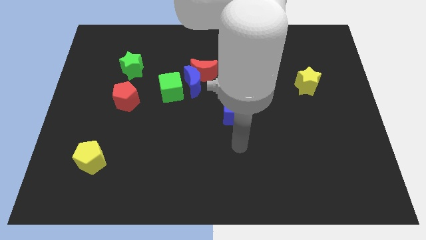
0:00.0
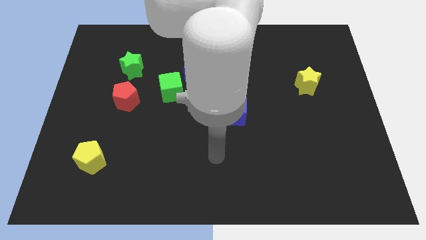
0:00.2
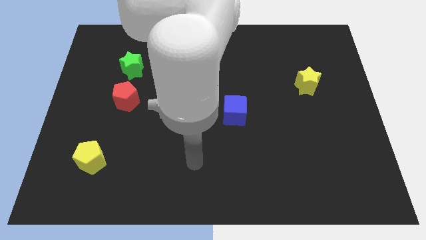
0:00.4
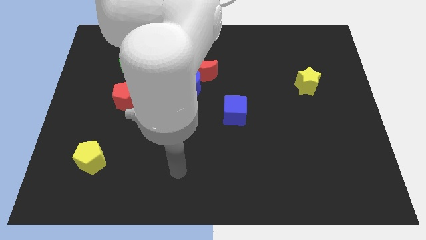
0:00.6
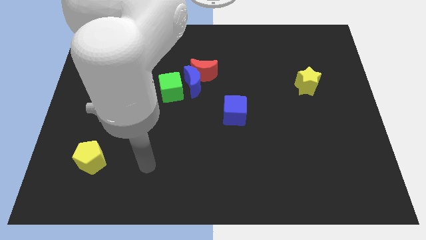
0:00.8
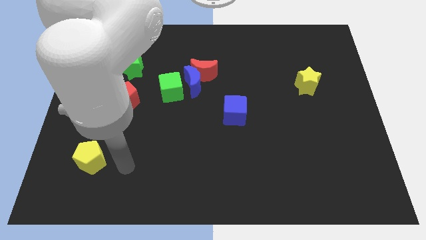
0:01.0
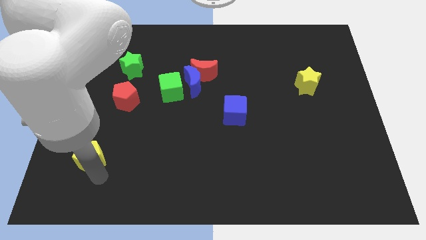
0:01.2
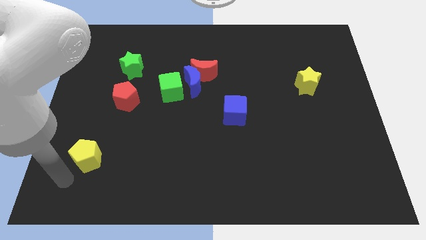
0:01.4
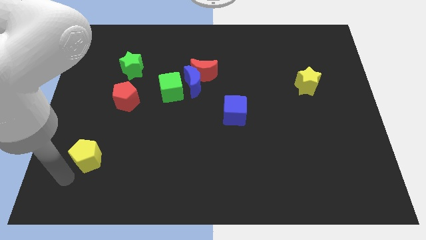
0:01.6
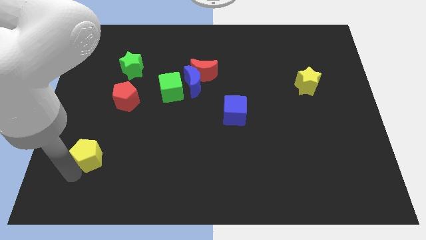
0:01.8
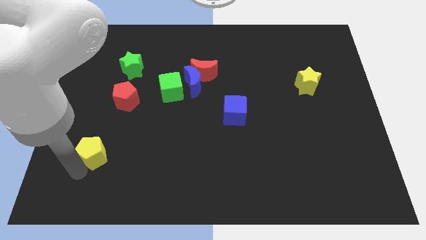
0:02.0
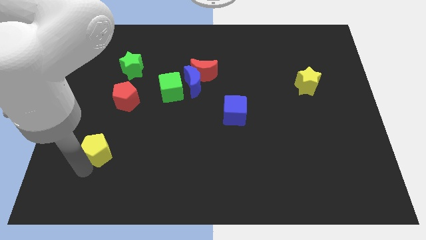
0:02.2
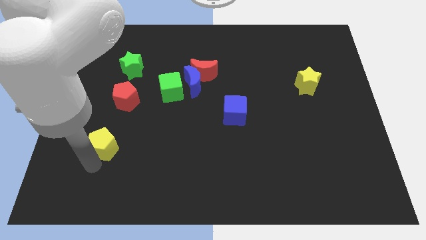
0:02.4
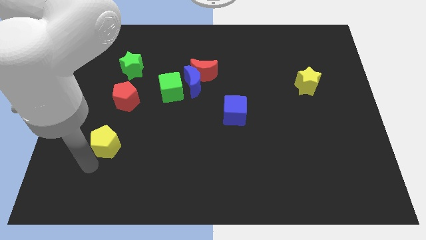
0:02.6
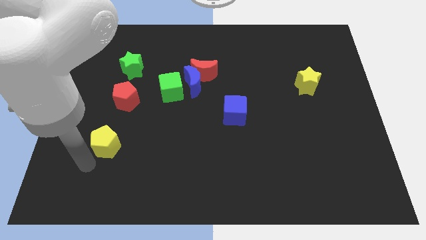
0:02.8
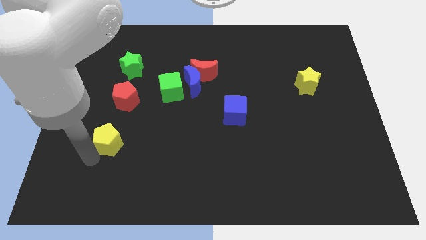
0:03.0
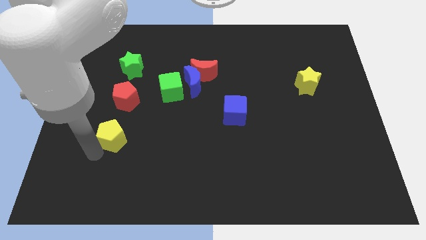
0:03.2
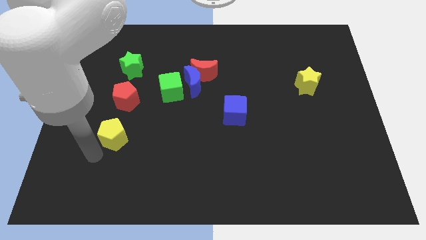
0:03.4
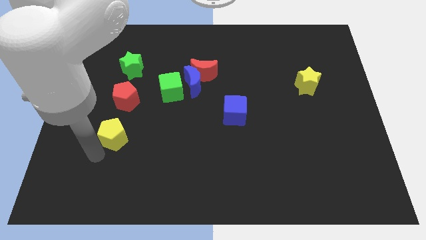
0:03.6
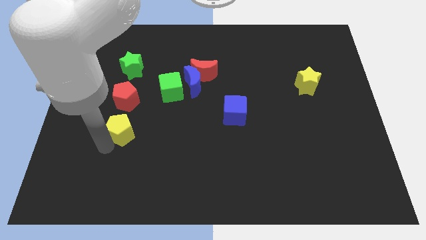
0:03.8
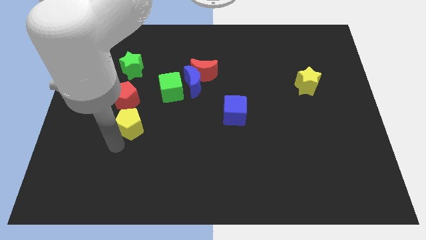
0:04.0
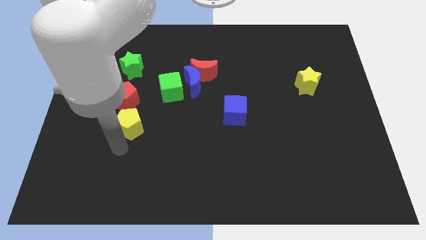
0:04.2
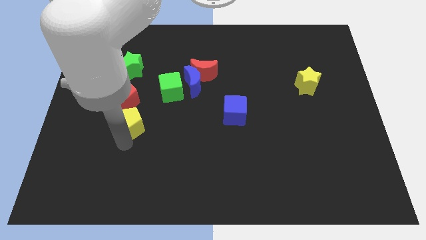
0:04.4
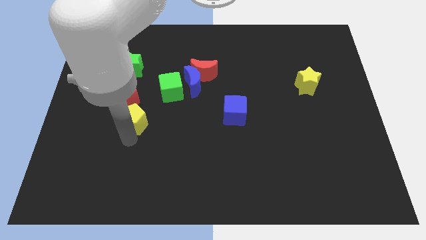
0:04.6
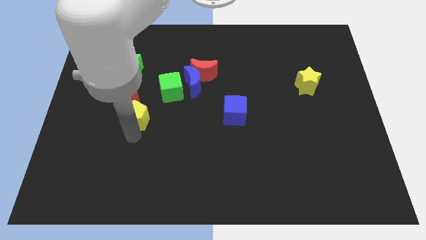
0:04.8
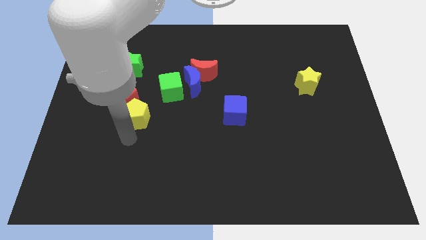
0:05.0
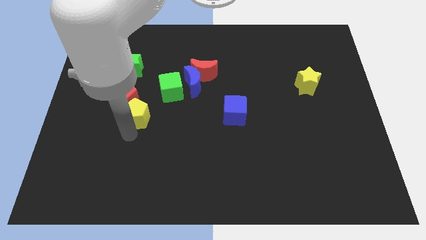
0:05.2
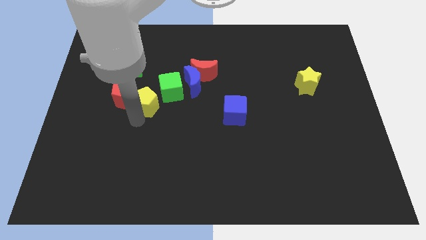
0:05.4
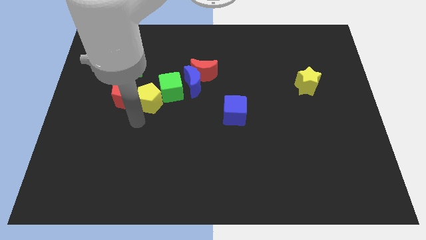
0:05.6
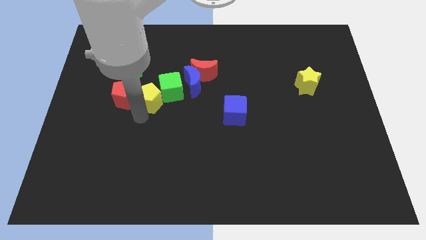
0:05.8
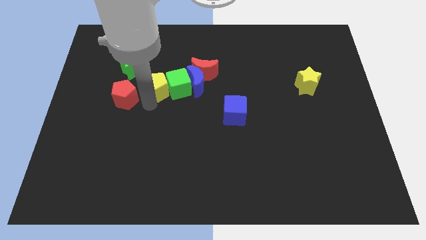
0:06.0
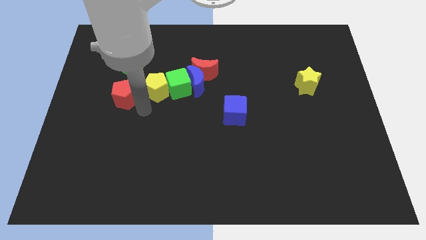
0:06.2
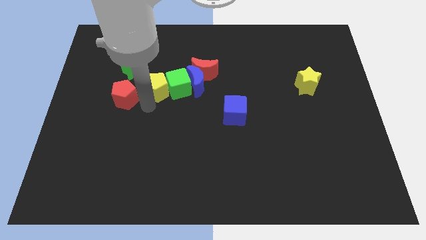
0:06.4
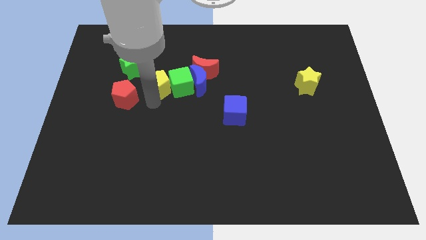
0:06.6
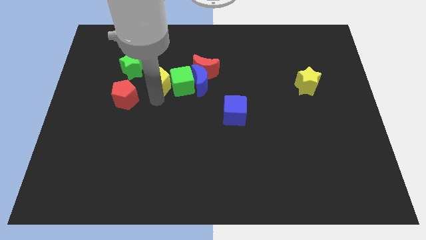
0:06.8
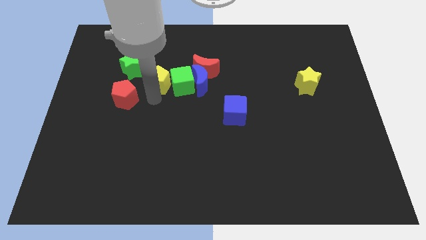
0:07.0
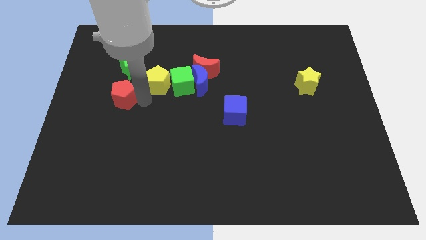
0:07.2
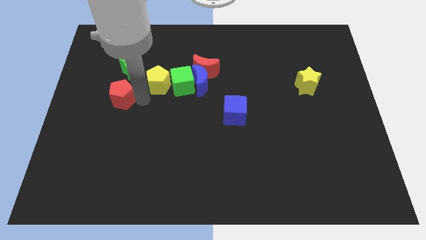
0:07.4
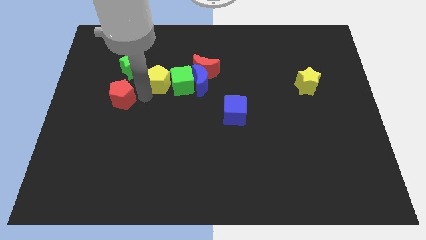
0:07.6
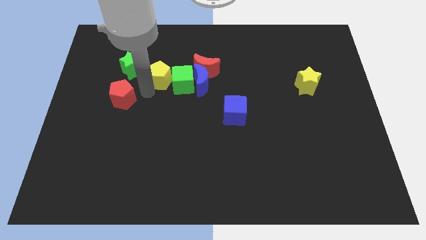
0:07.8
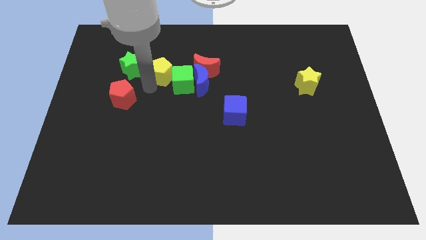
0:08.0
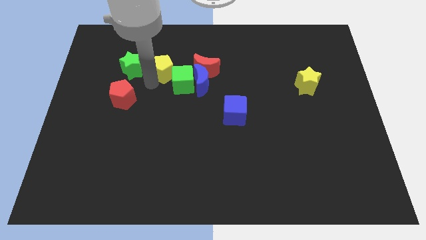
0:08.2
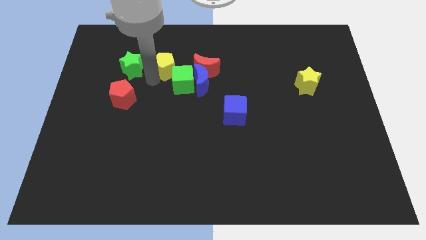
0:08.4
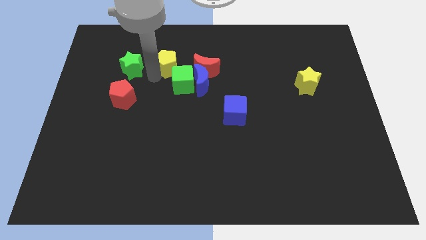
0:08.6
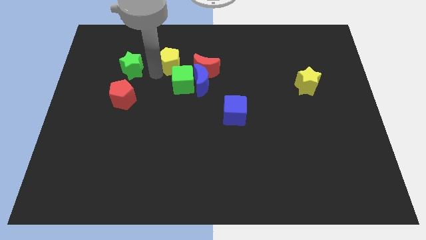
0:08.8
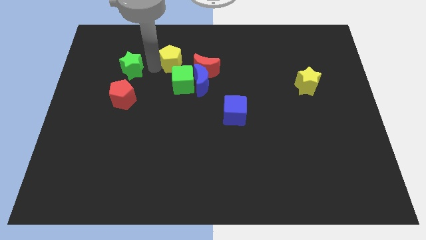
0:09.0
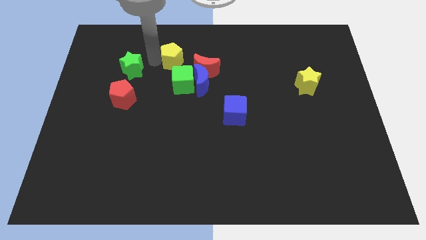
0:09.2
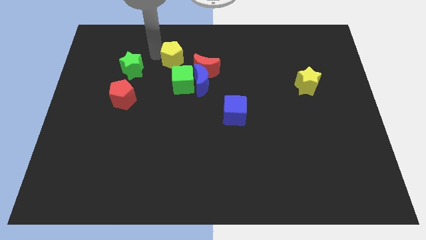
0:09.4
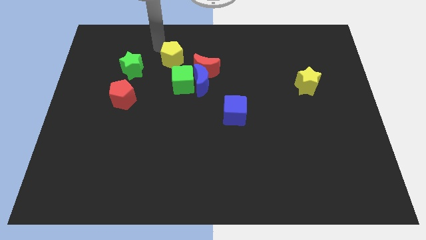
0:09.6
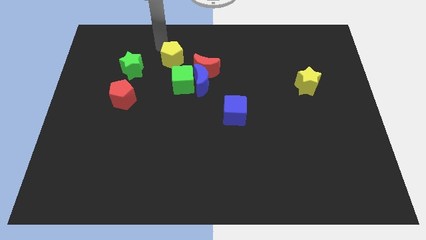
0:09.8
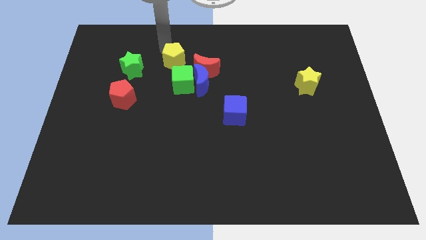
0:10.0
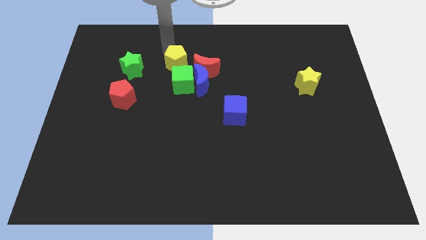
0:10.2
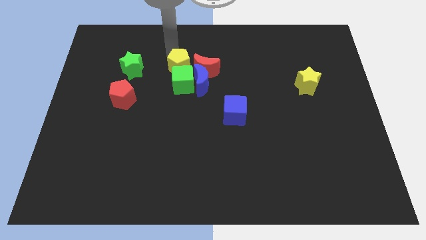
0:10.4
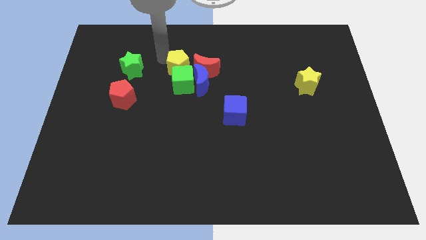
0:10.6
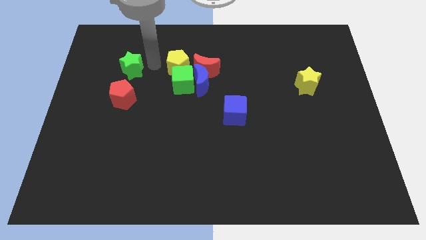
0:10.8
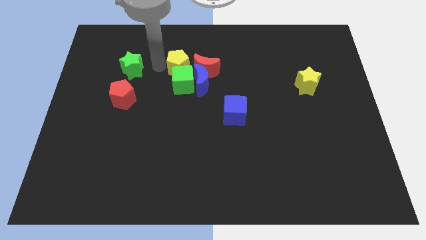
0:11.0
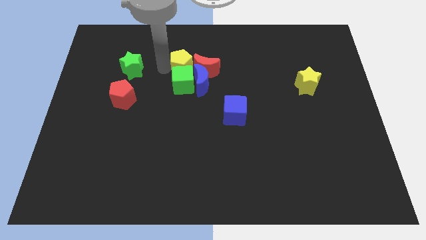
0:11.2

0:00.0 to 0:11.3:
move the yellow pentagon next to the red moon

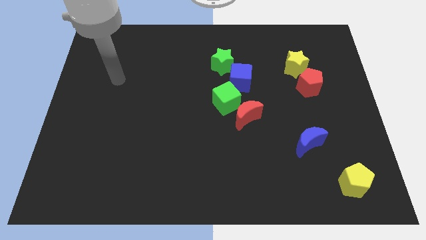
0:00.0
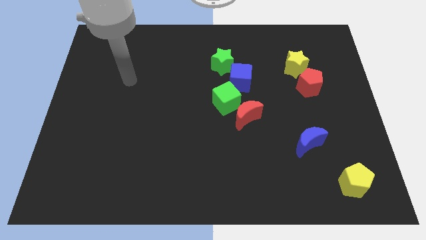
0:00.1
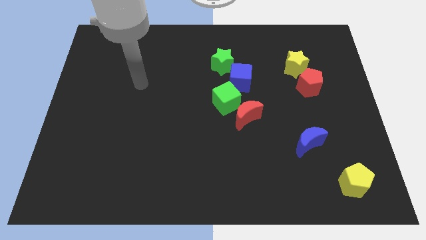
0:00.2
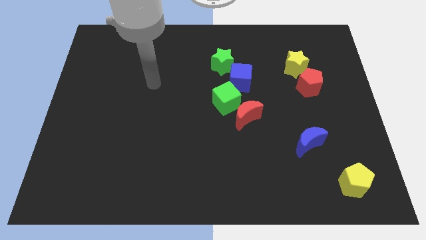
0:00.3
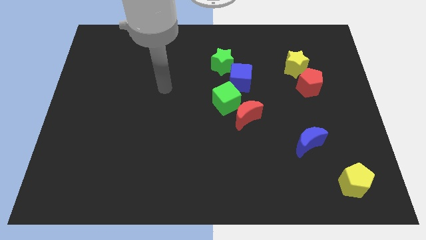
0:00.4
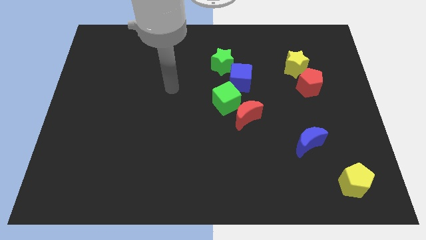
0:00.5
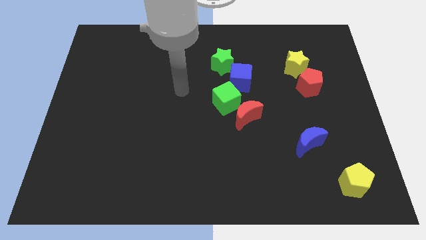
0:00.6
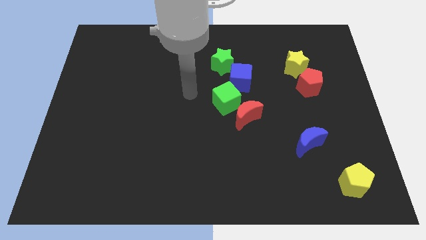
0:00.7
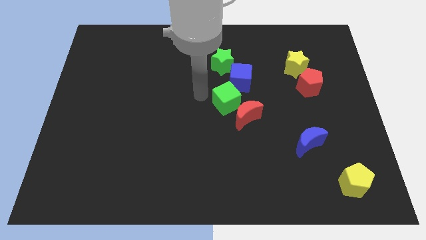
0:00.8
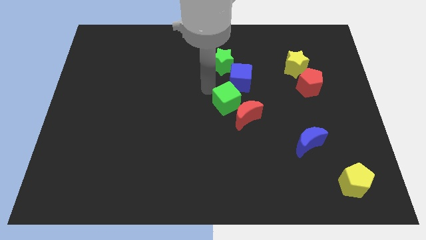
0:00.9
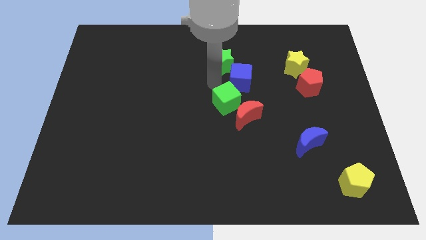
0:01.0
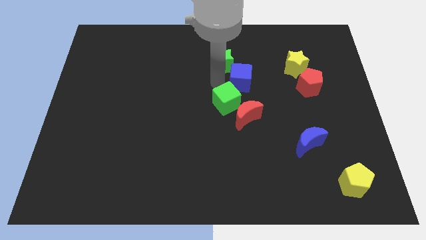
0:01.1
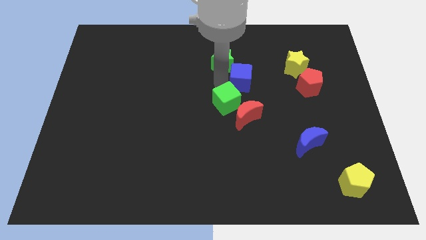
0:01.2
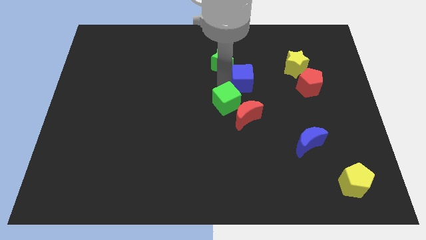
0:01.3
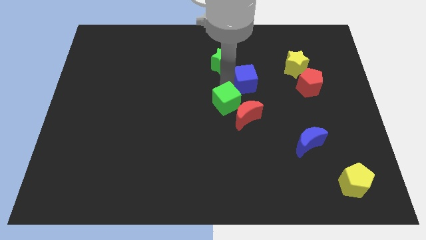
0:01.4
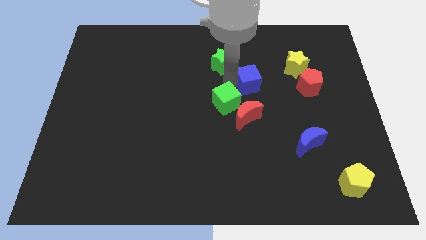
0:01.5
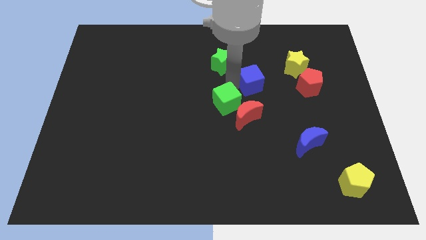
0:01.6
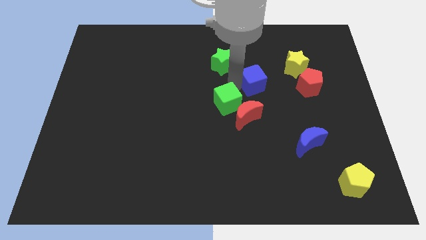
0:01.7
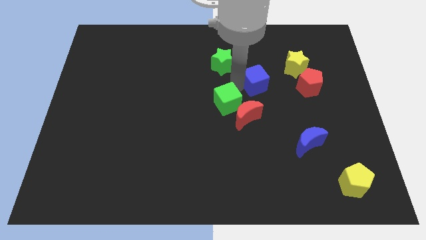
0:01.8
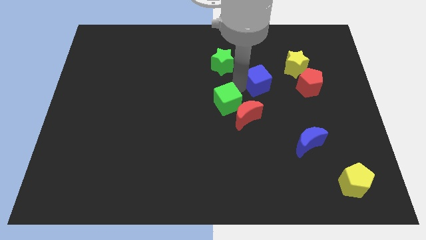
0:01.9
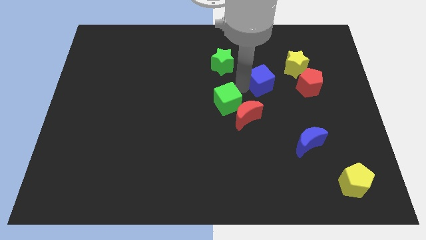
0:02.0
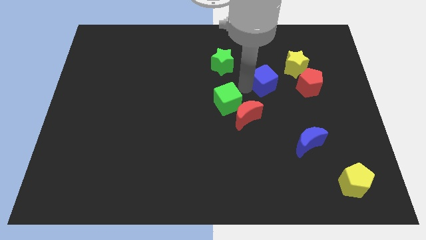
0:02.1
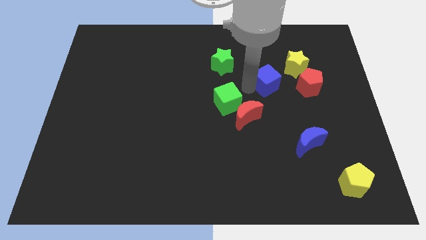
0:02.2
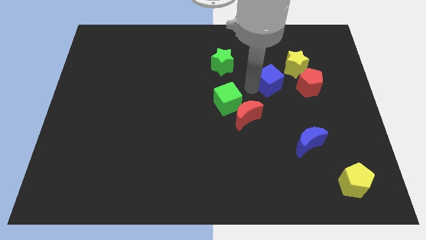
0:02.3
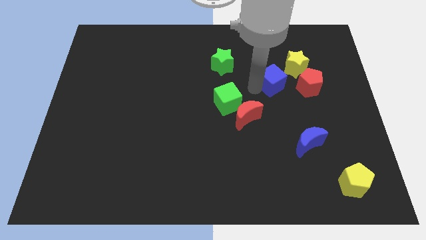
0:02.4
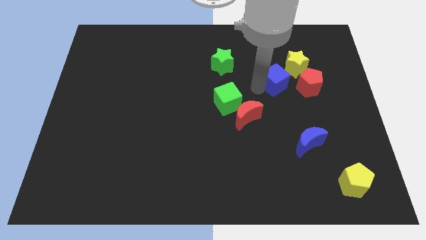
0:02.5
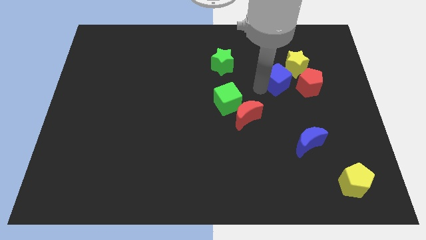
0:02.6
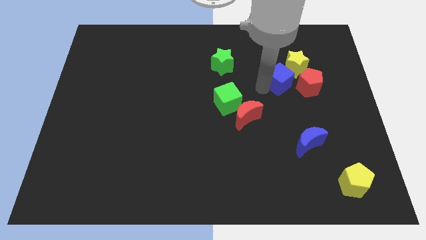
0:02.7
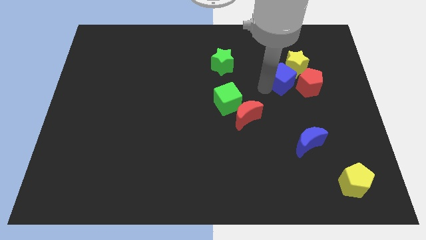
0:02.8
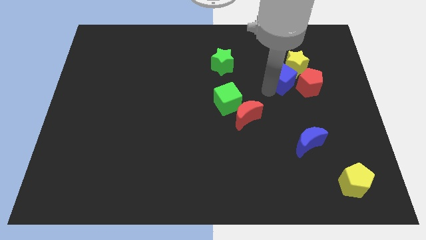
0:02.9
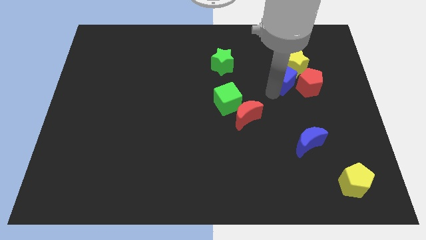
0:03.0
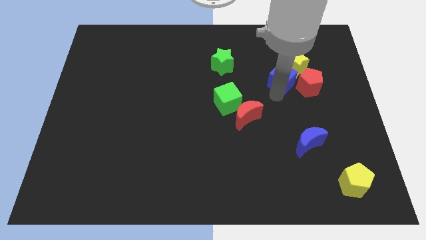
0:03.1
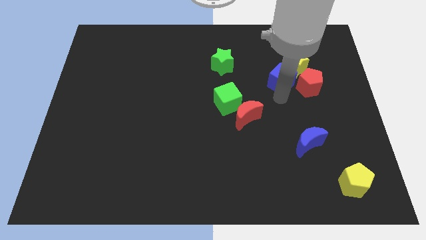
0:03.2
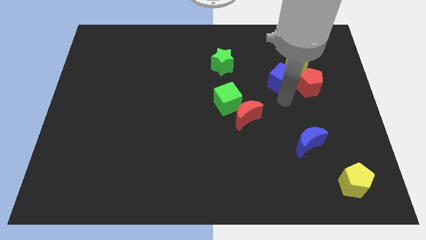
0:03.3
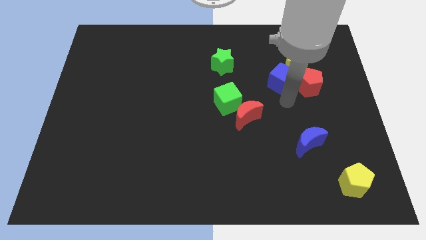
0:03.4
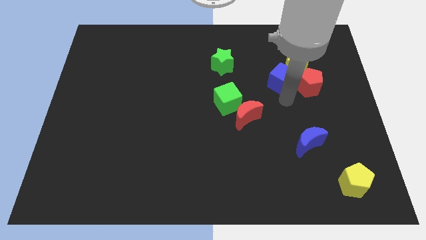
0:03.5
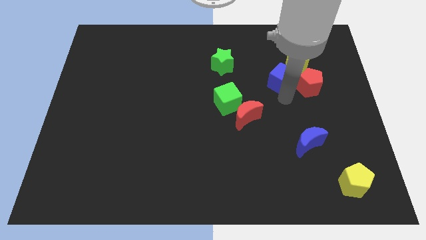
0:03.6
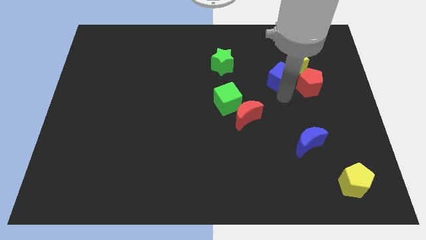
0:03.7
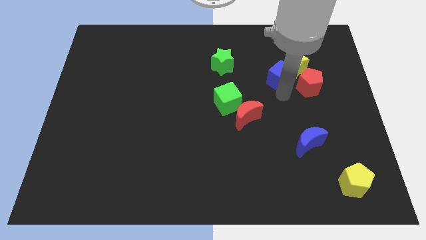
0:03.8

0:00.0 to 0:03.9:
move the blue cube next to the yellow star
